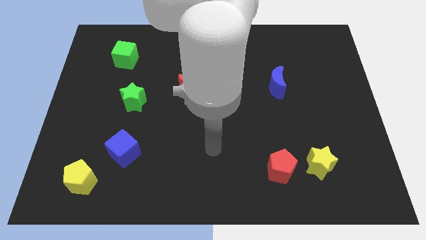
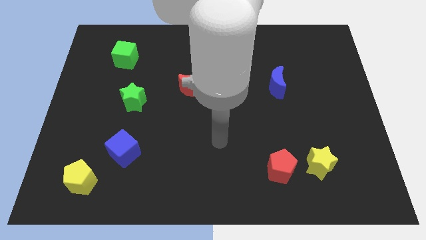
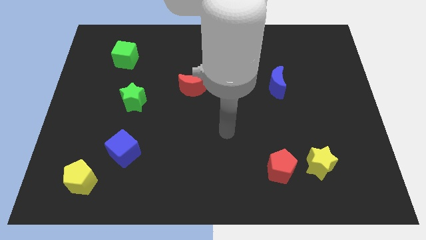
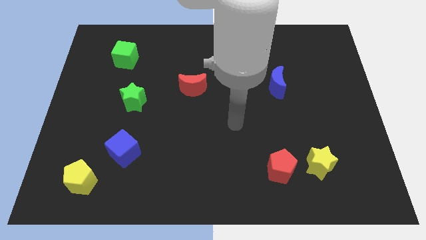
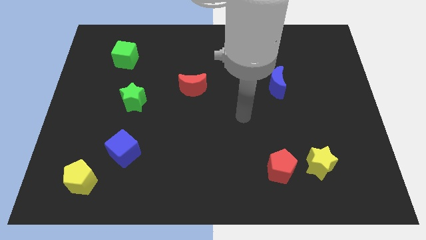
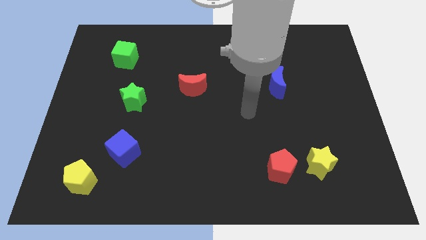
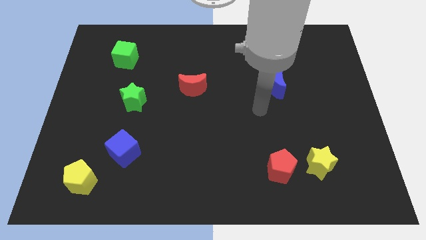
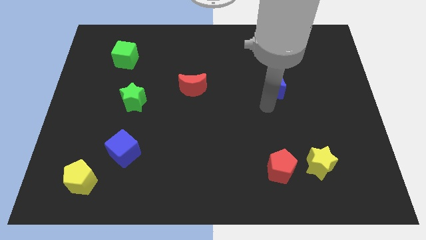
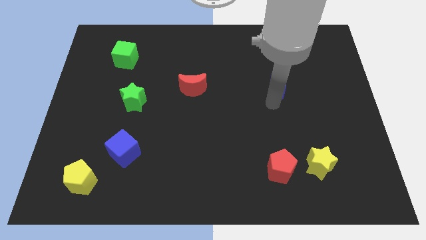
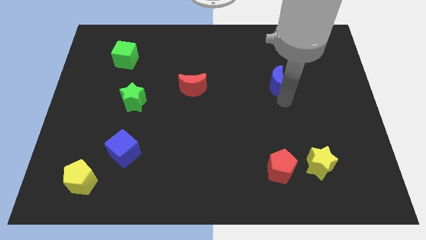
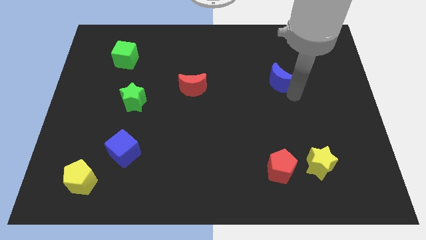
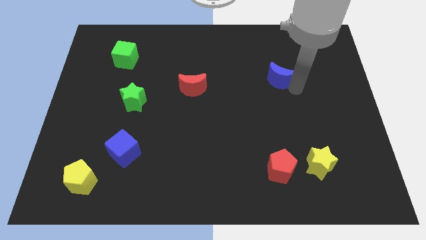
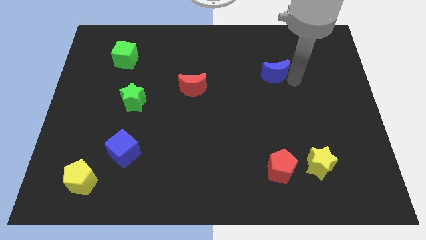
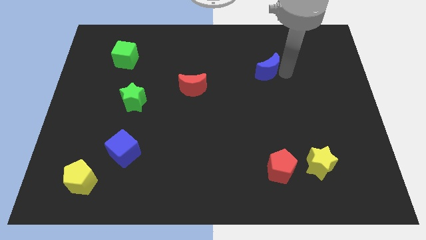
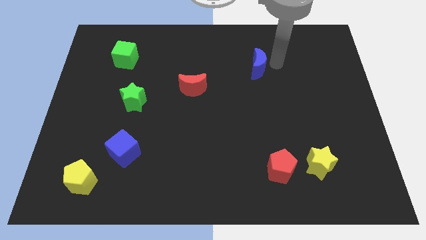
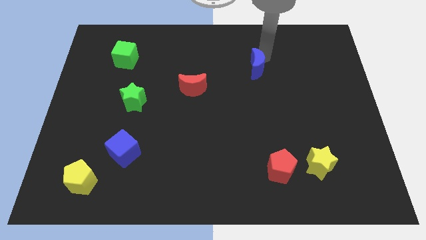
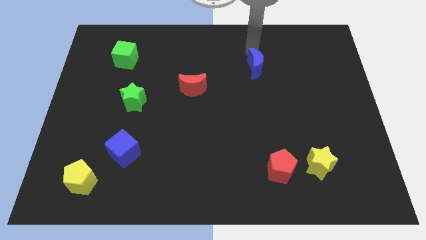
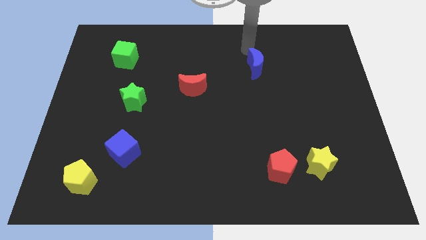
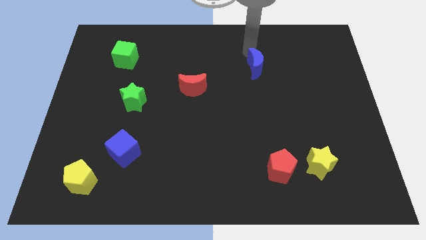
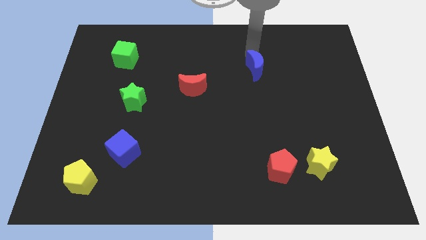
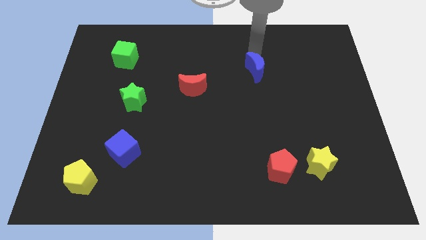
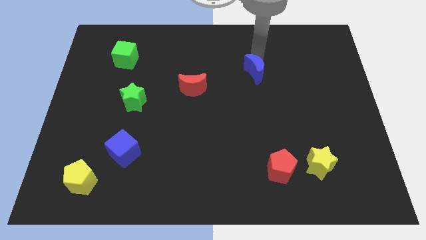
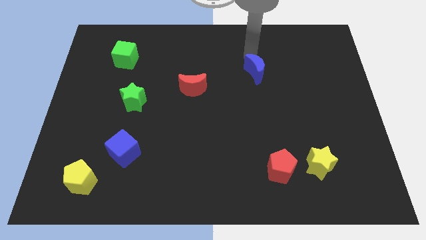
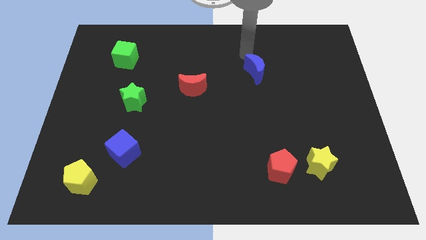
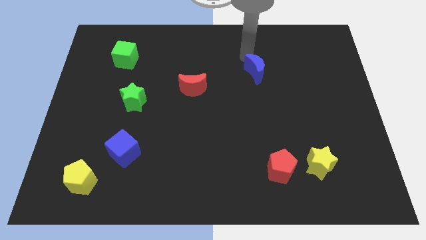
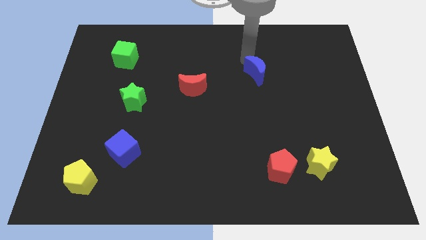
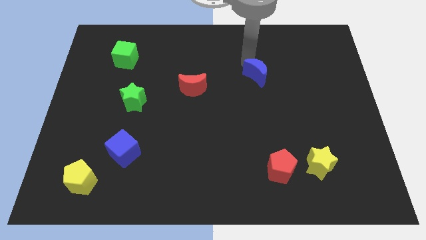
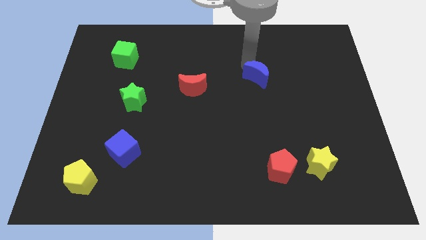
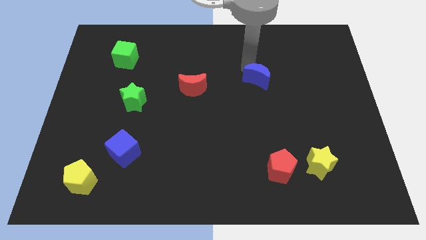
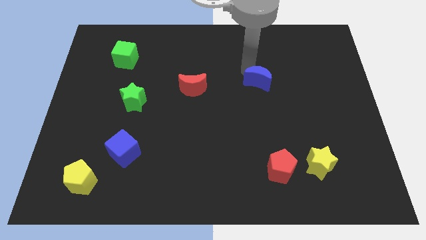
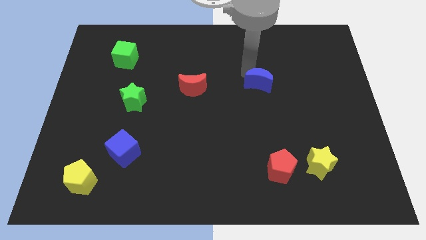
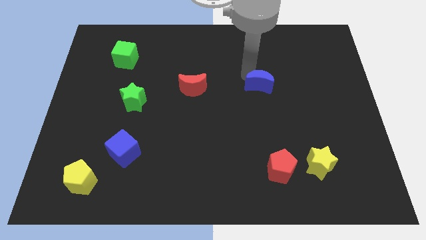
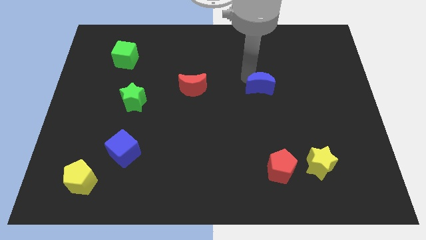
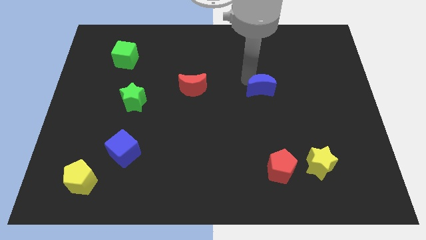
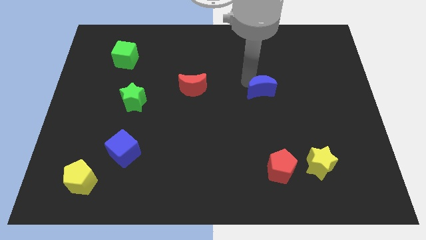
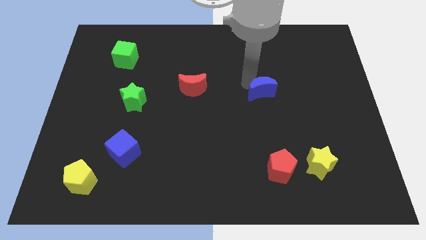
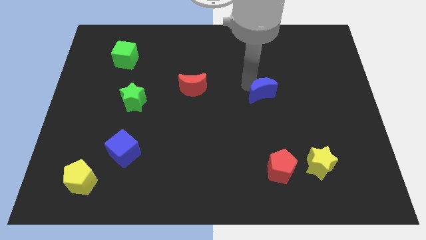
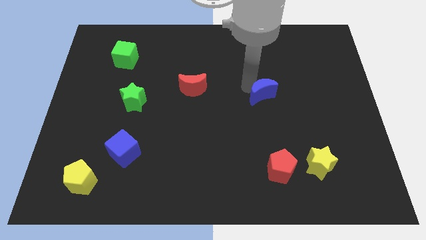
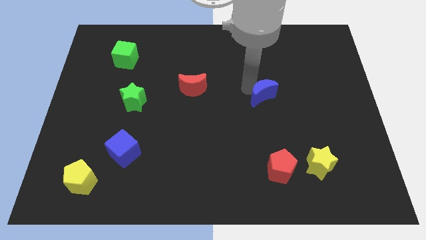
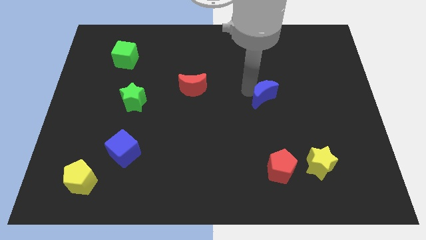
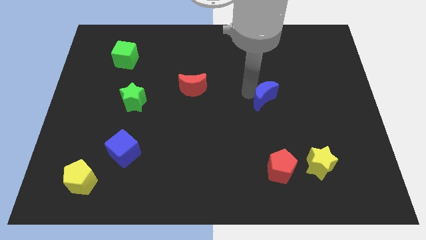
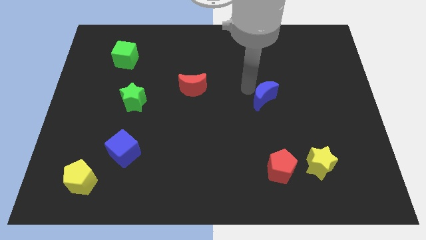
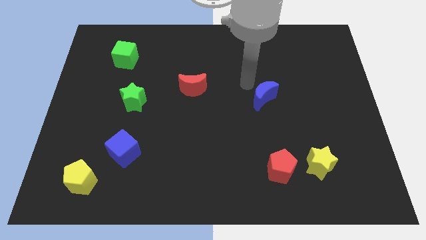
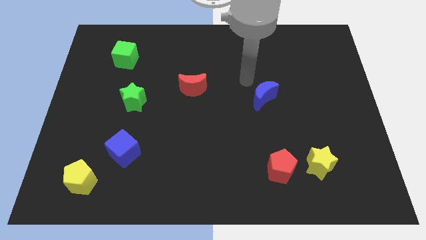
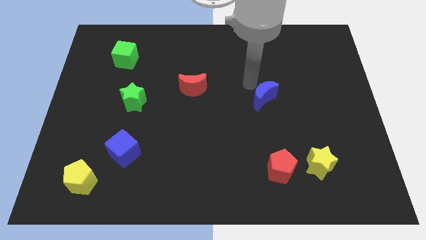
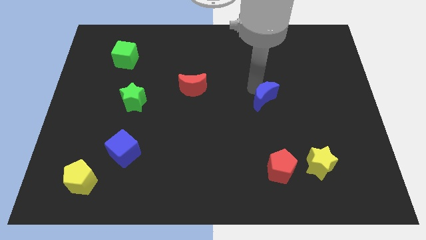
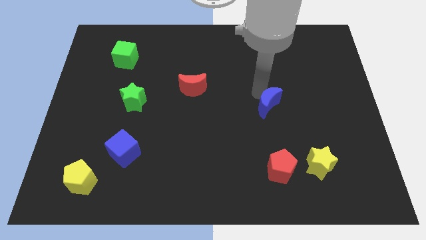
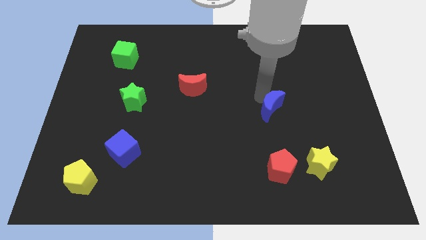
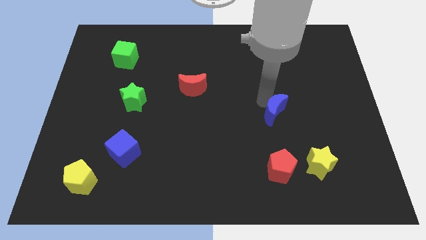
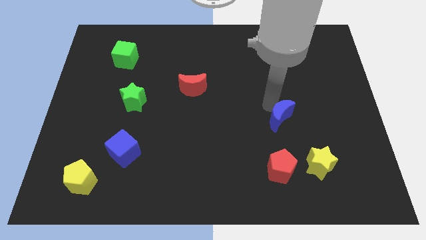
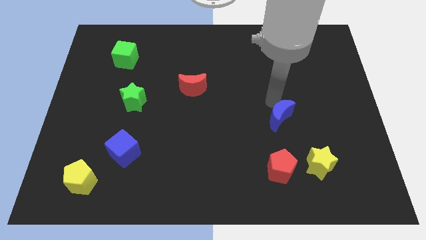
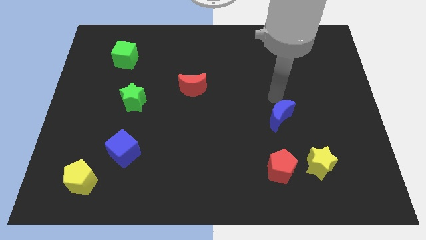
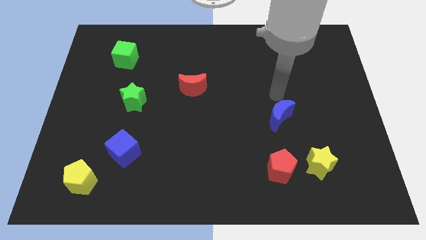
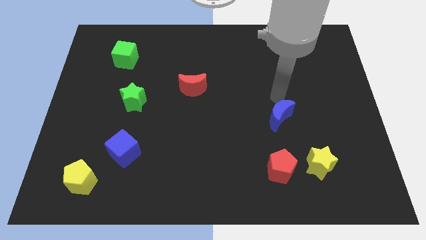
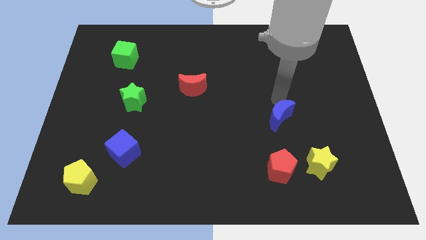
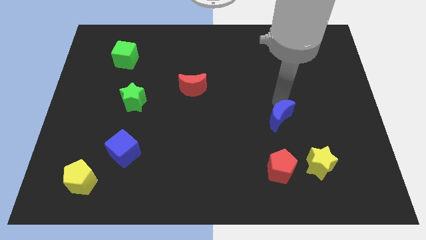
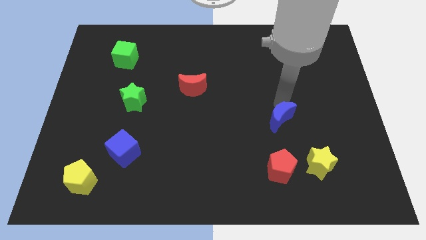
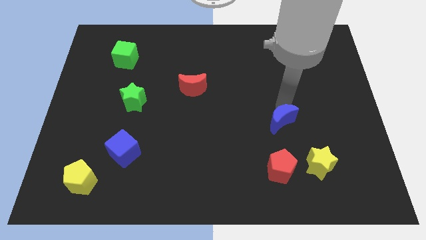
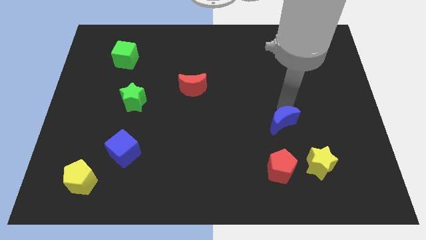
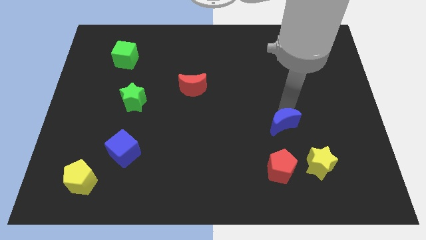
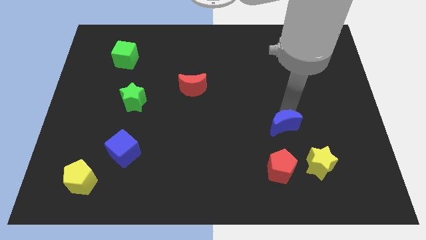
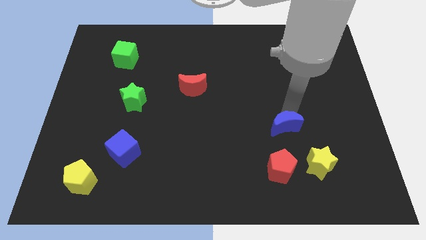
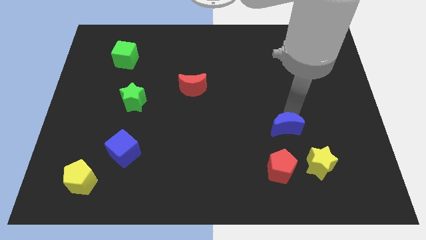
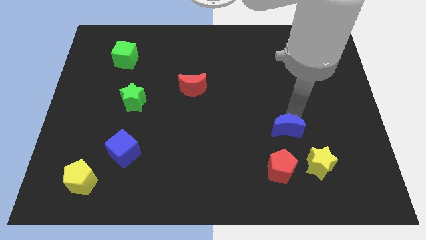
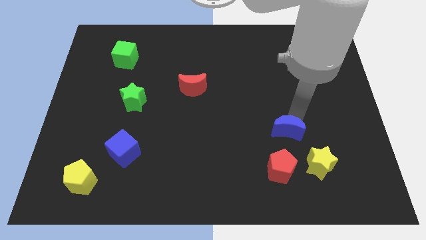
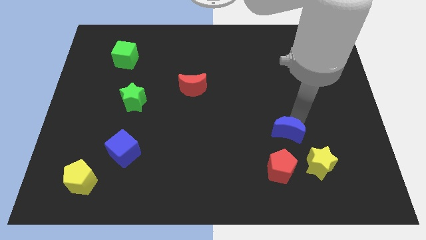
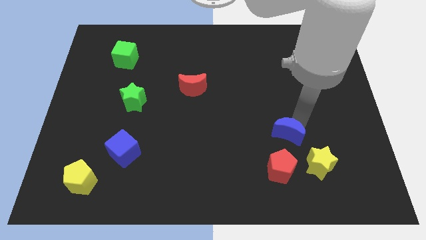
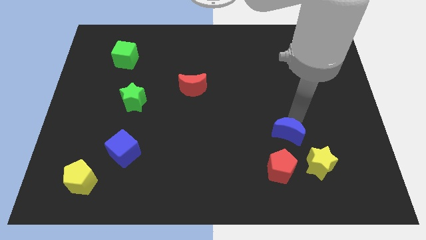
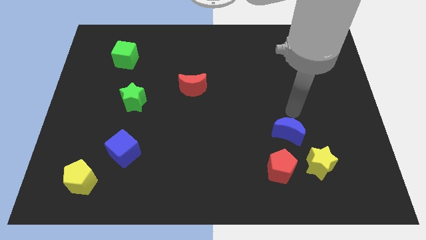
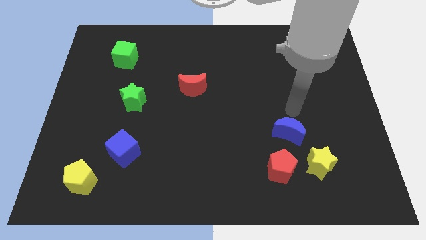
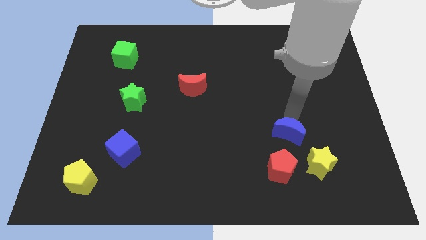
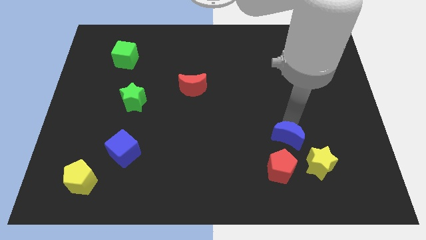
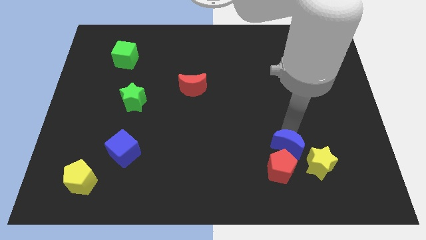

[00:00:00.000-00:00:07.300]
push the blue moon towards the red pentagon

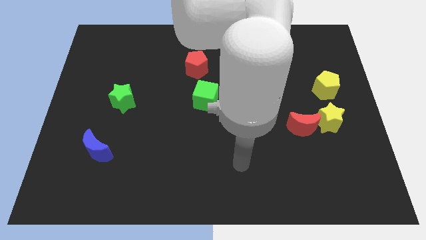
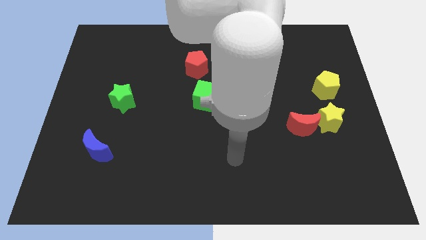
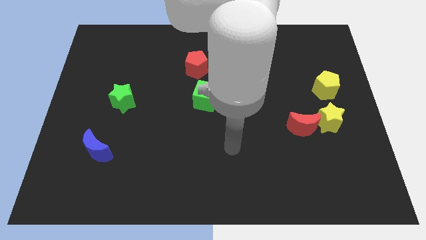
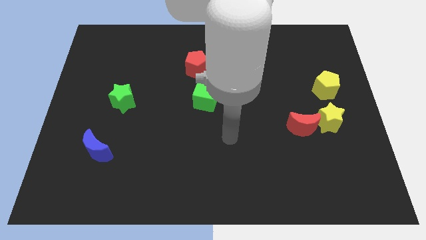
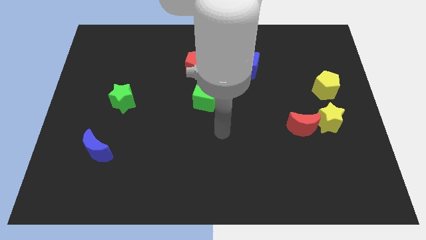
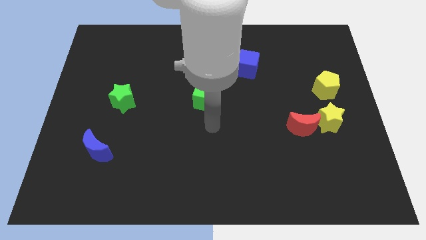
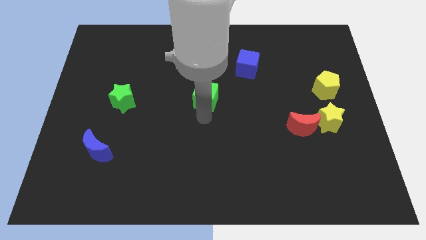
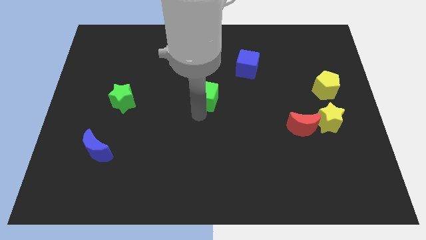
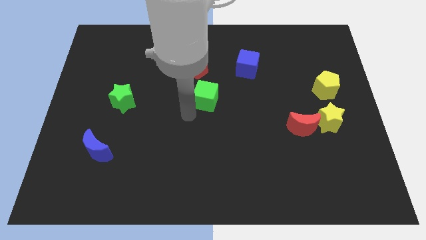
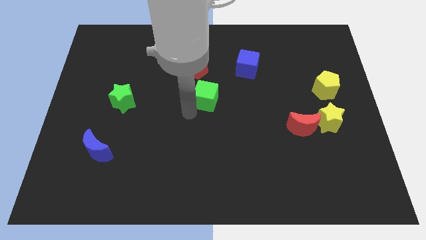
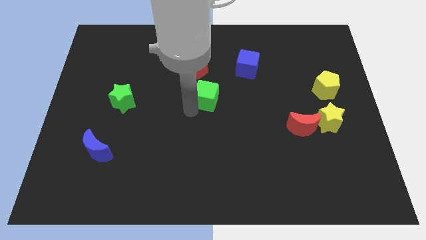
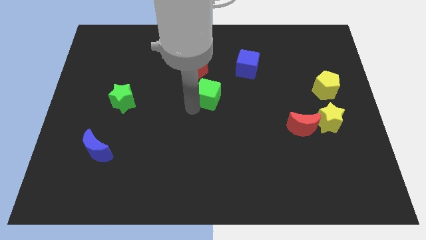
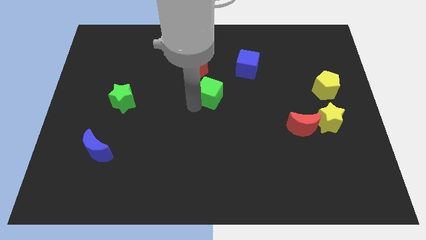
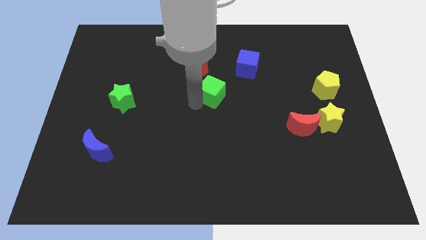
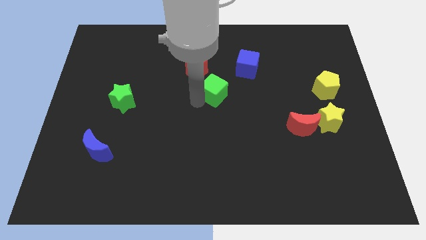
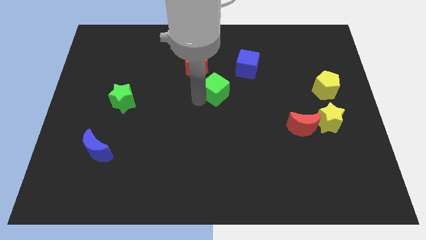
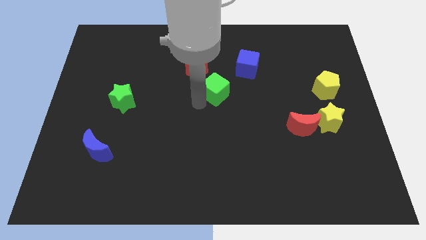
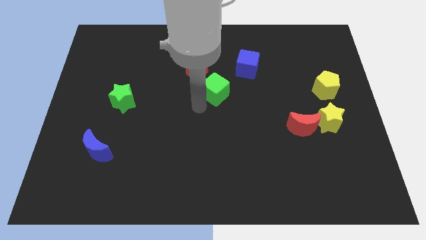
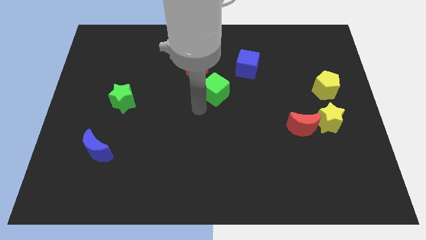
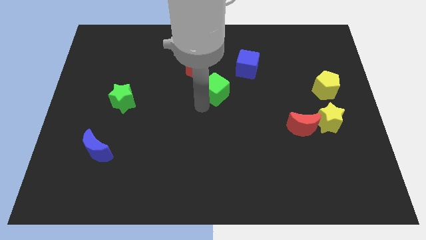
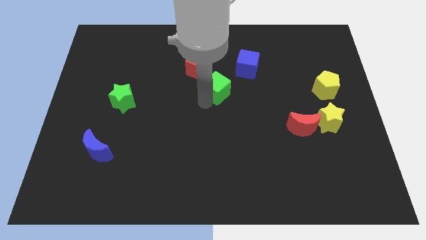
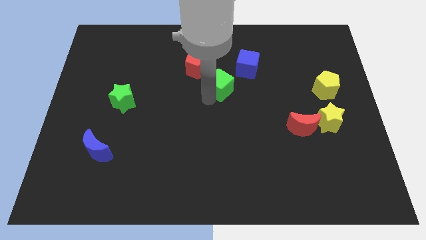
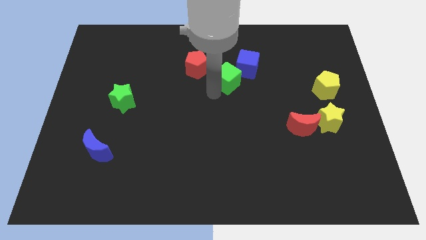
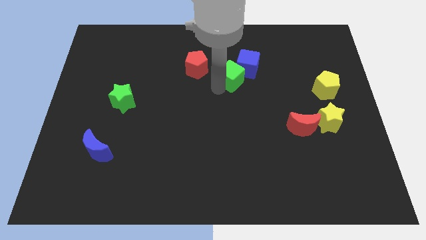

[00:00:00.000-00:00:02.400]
slide the green cube to the blue cube
